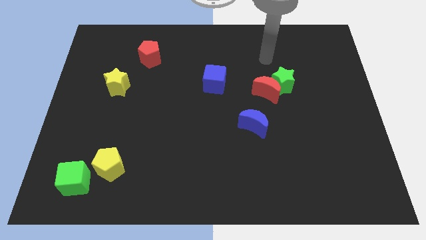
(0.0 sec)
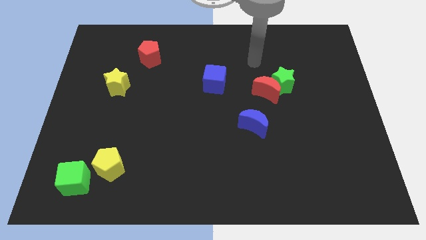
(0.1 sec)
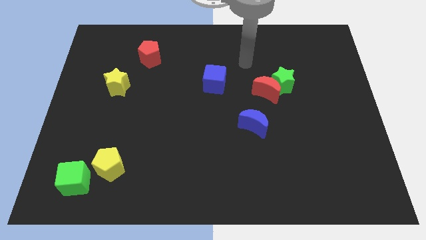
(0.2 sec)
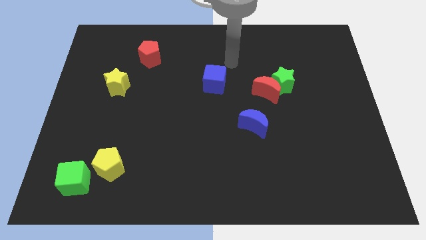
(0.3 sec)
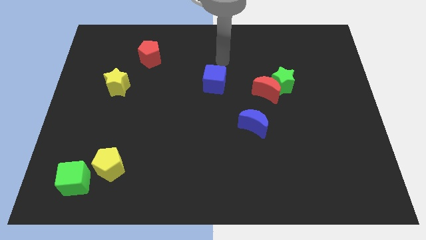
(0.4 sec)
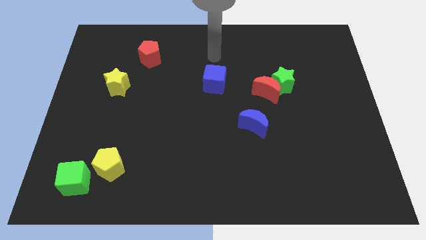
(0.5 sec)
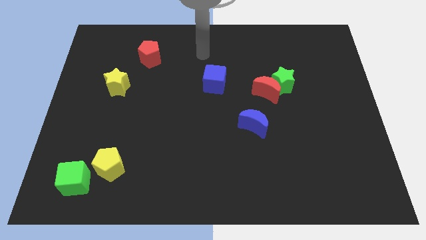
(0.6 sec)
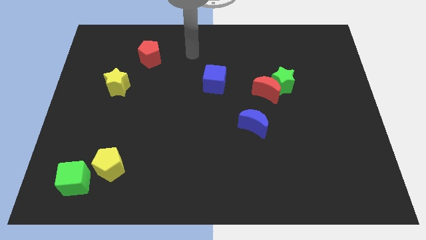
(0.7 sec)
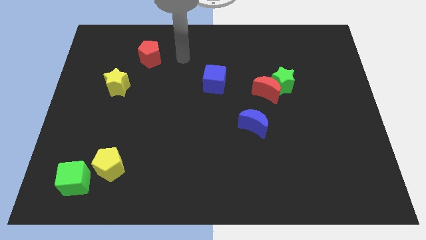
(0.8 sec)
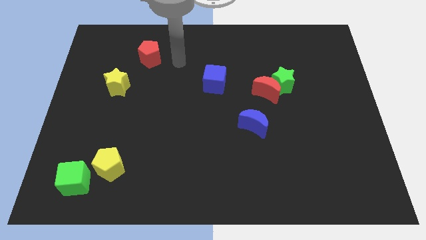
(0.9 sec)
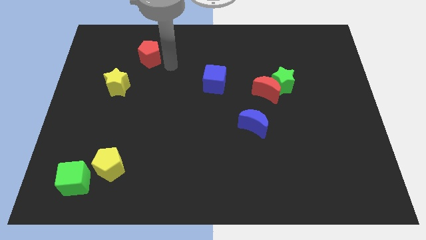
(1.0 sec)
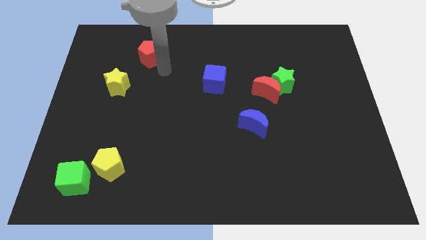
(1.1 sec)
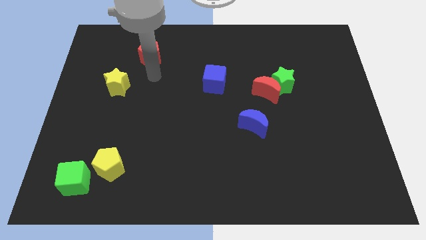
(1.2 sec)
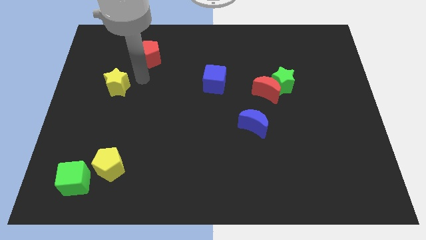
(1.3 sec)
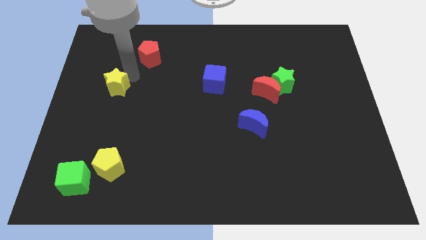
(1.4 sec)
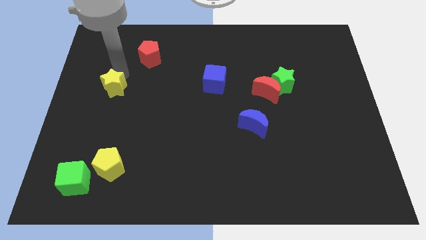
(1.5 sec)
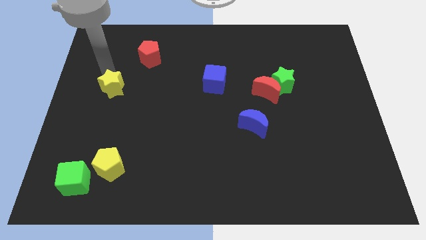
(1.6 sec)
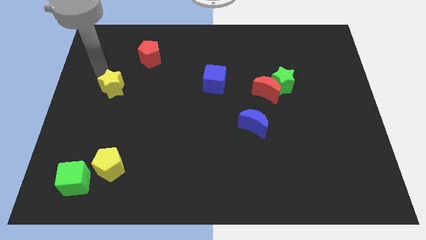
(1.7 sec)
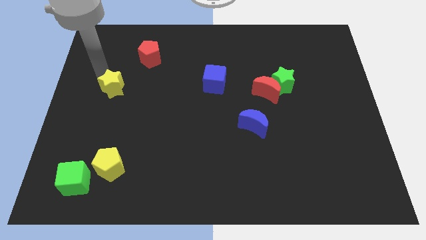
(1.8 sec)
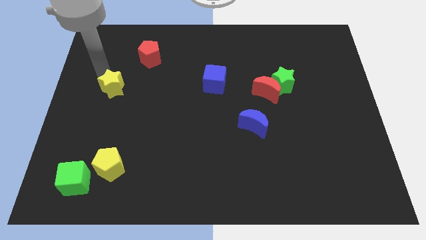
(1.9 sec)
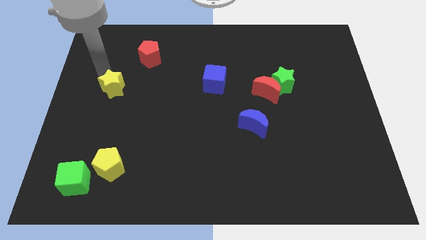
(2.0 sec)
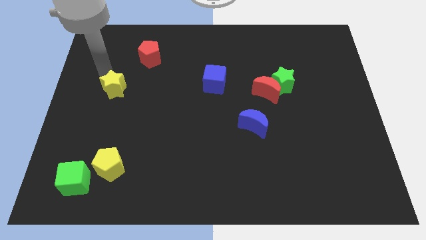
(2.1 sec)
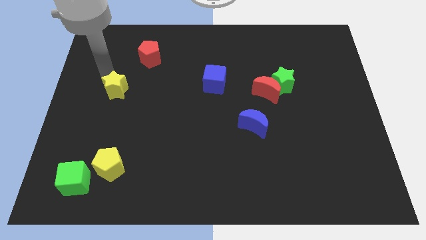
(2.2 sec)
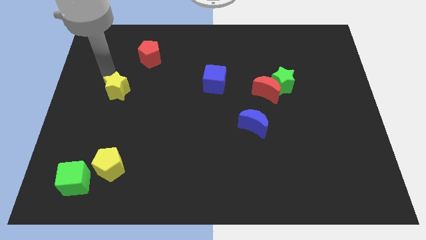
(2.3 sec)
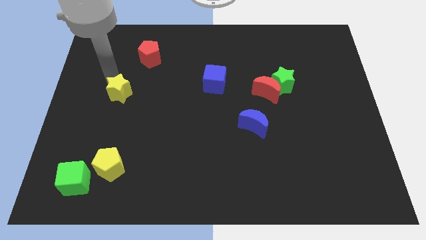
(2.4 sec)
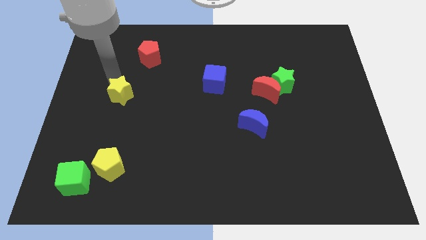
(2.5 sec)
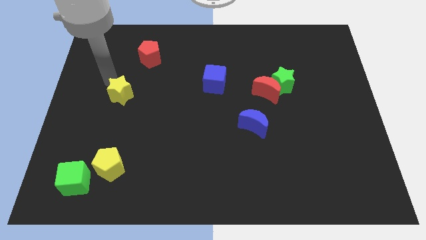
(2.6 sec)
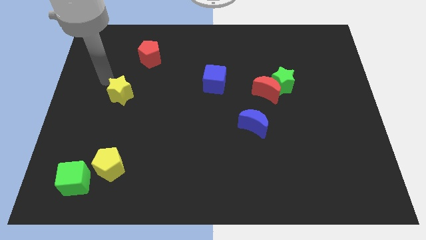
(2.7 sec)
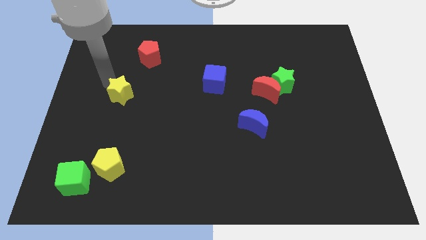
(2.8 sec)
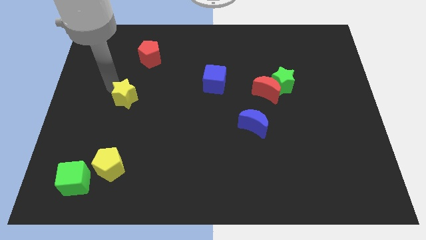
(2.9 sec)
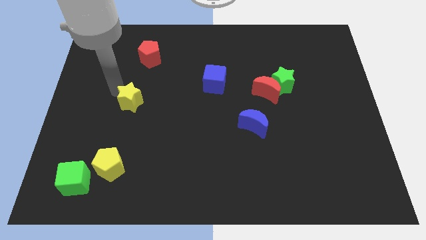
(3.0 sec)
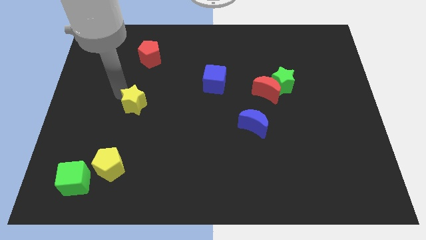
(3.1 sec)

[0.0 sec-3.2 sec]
push the yellow star downwards and to the right slightly

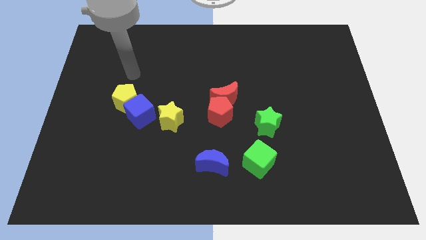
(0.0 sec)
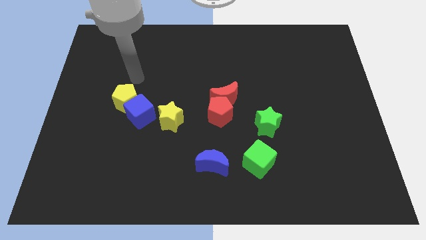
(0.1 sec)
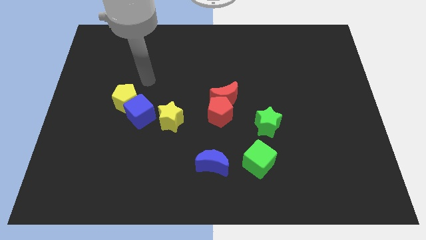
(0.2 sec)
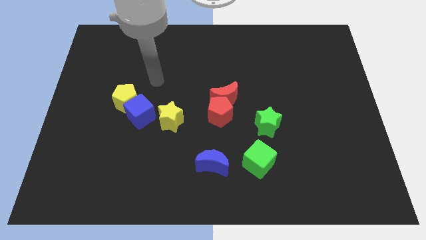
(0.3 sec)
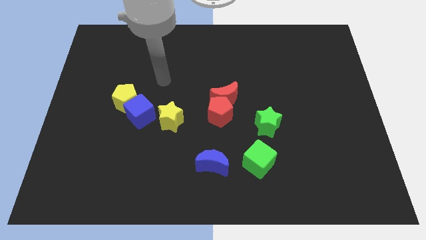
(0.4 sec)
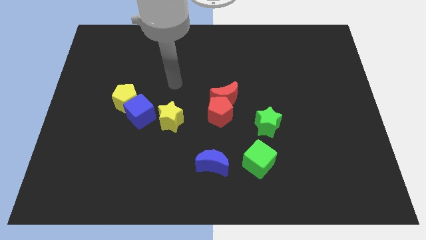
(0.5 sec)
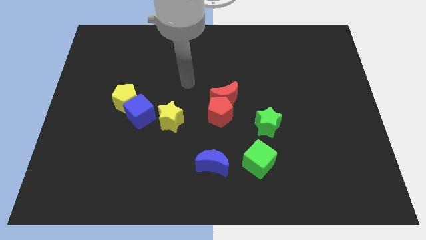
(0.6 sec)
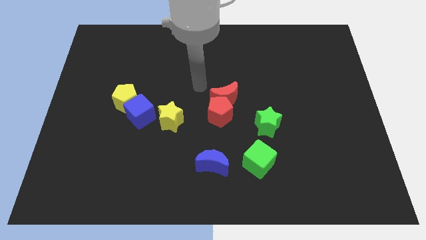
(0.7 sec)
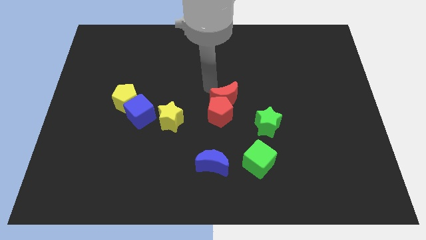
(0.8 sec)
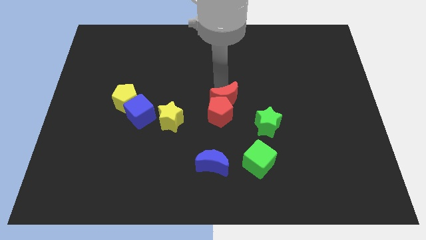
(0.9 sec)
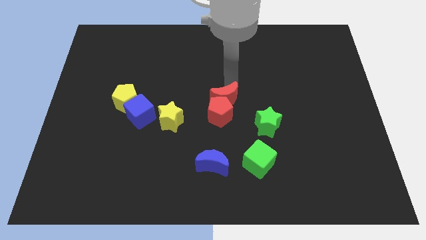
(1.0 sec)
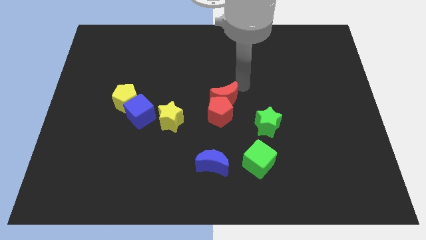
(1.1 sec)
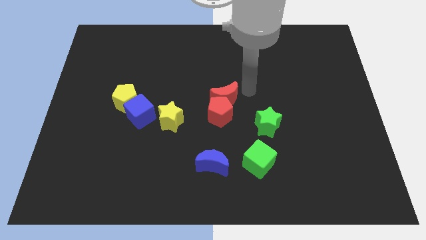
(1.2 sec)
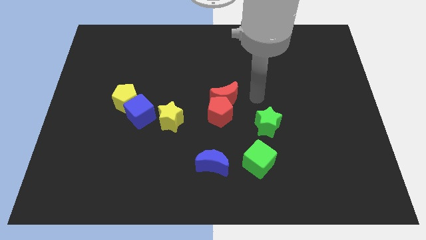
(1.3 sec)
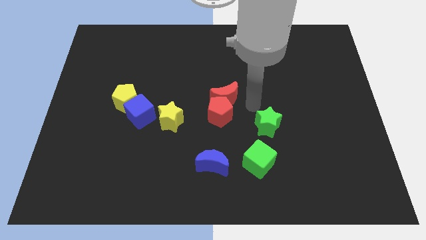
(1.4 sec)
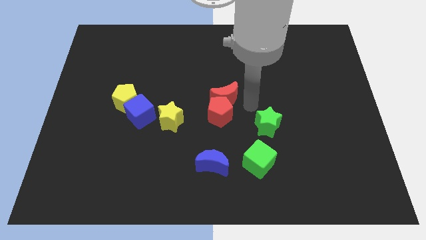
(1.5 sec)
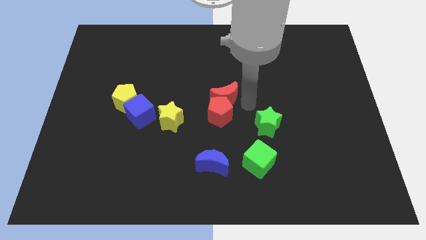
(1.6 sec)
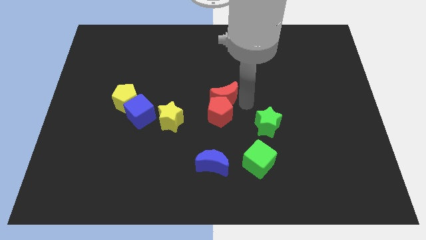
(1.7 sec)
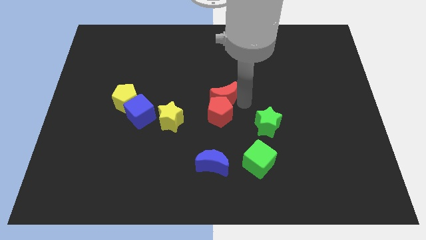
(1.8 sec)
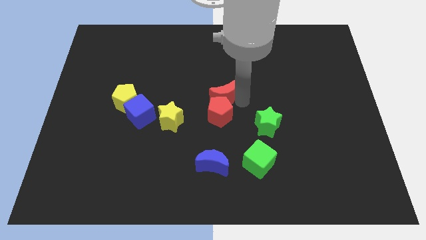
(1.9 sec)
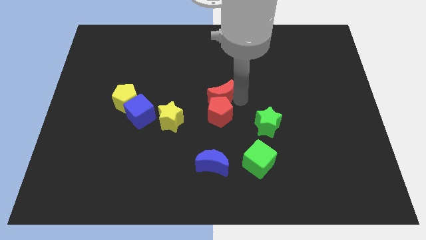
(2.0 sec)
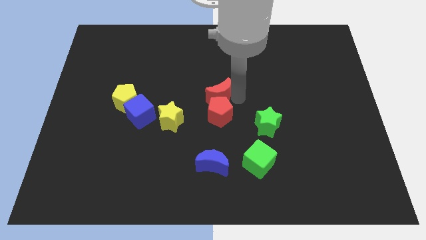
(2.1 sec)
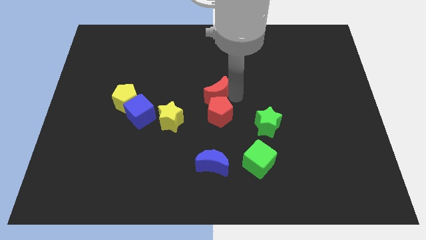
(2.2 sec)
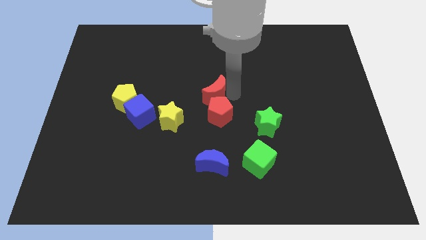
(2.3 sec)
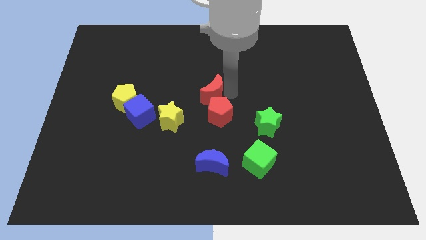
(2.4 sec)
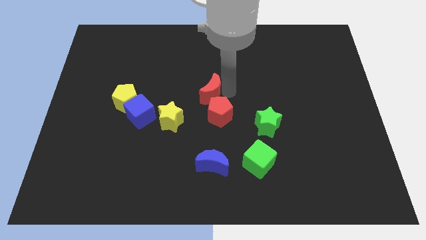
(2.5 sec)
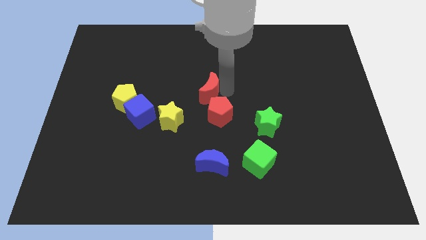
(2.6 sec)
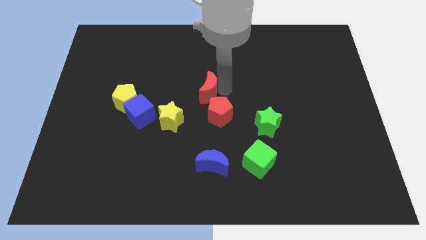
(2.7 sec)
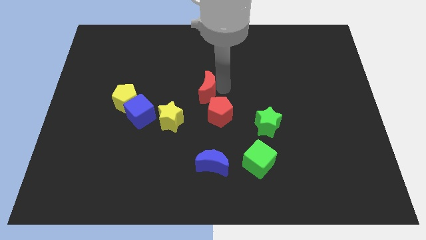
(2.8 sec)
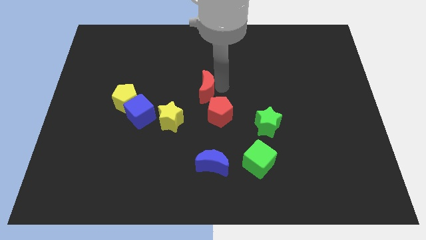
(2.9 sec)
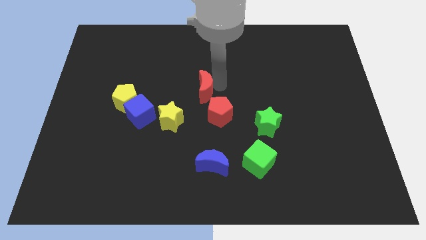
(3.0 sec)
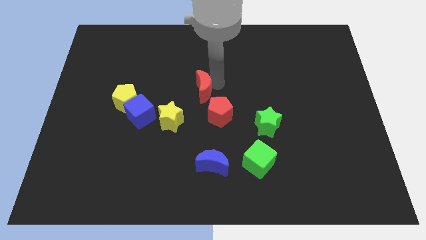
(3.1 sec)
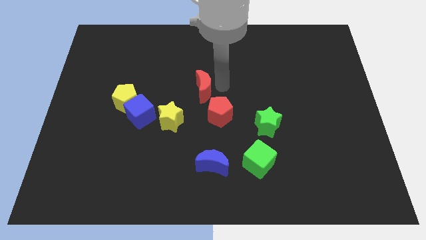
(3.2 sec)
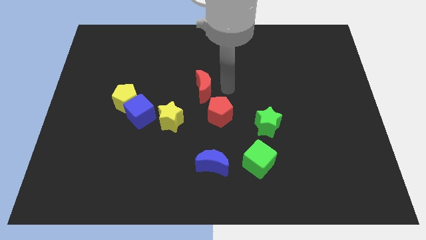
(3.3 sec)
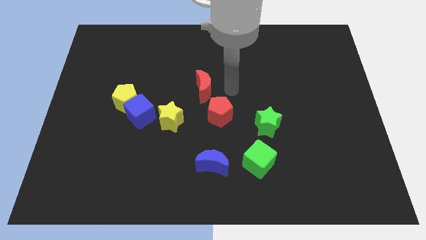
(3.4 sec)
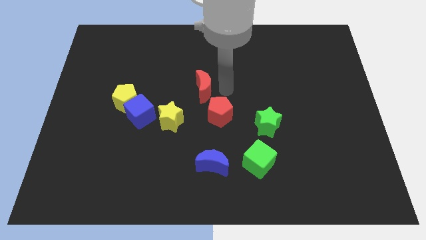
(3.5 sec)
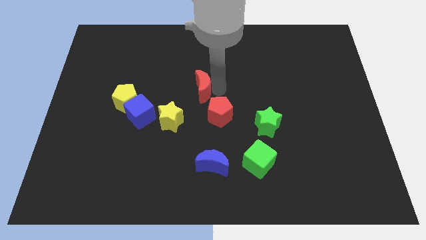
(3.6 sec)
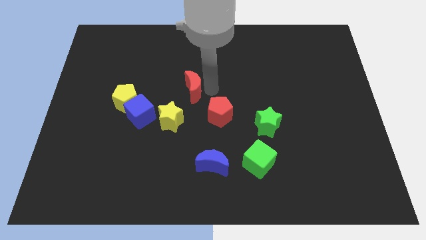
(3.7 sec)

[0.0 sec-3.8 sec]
slightly move the red moon to the left

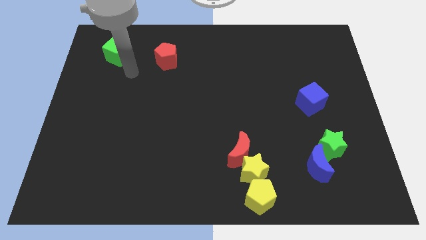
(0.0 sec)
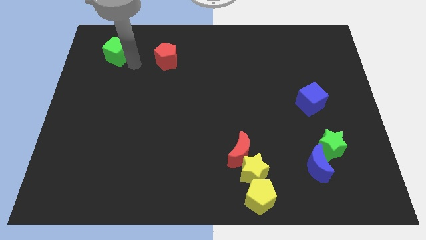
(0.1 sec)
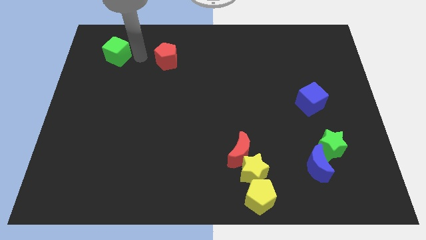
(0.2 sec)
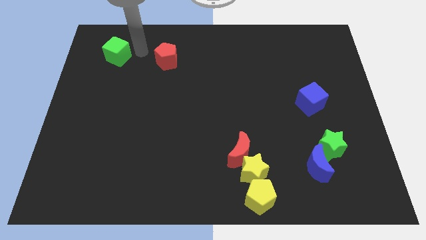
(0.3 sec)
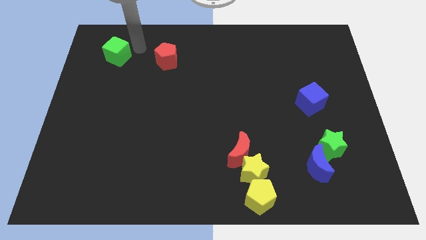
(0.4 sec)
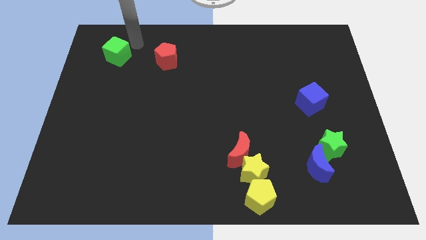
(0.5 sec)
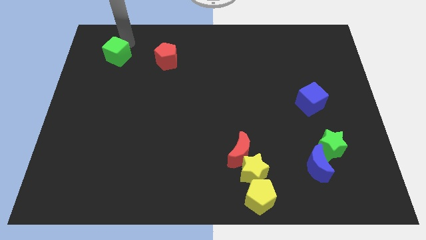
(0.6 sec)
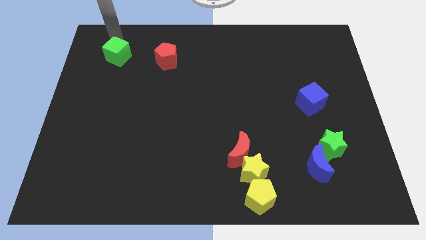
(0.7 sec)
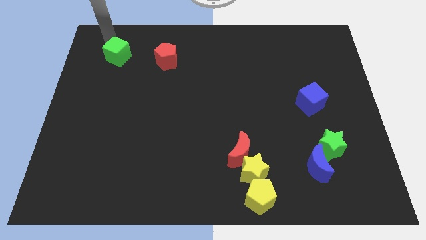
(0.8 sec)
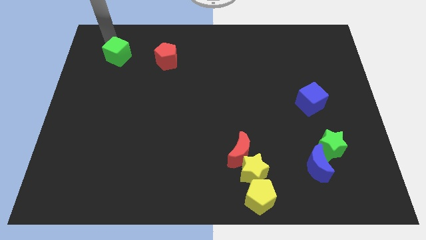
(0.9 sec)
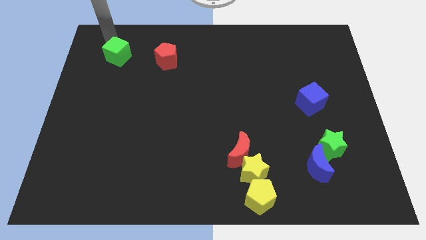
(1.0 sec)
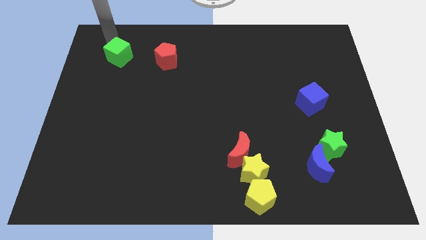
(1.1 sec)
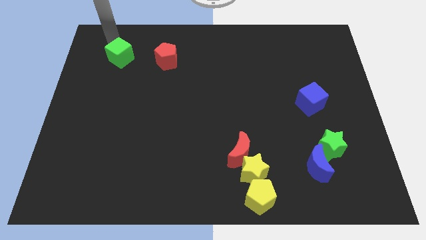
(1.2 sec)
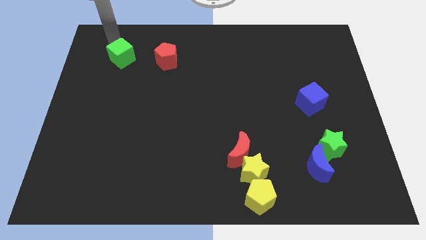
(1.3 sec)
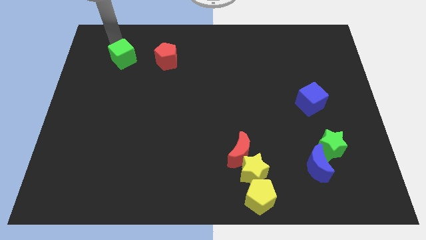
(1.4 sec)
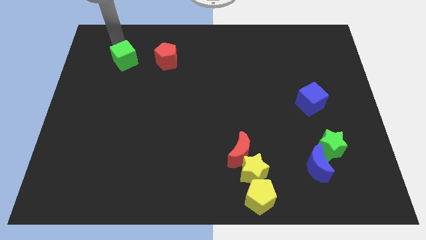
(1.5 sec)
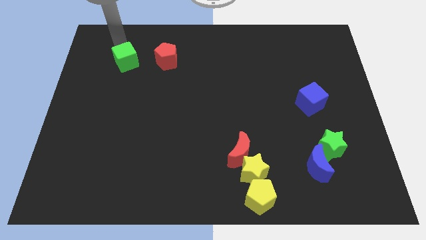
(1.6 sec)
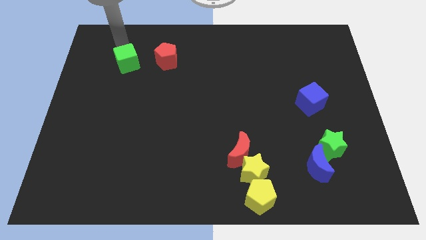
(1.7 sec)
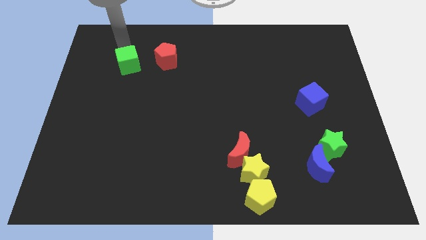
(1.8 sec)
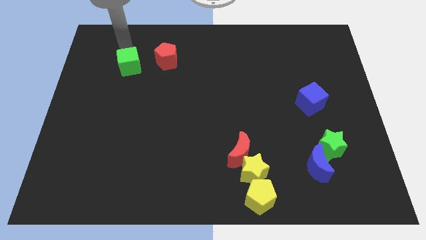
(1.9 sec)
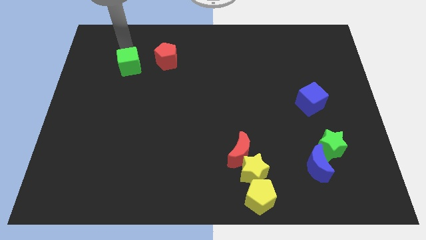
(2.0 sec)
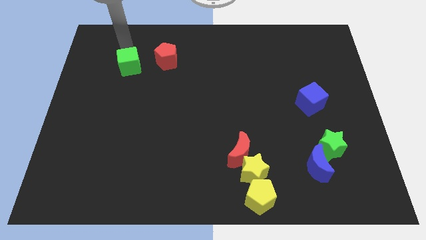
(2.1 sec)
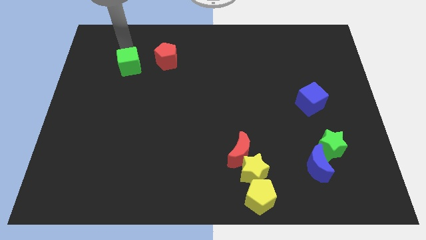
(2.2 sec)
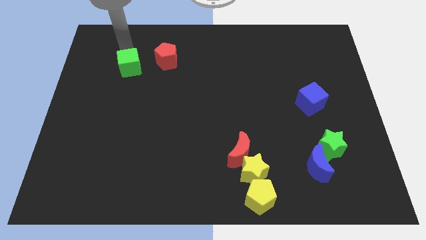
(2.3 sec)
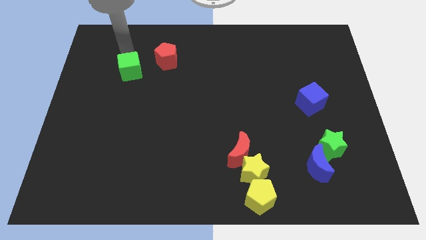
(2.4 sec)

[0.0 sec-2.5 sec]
push the green cube a bit downwards and to the right diagonally
